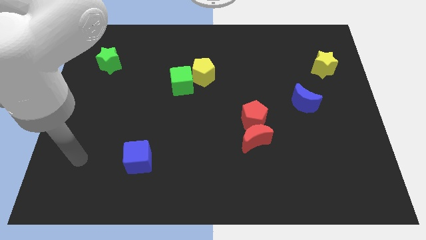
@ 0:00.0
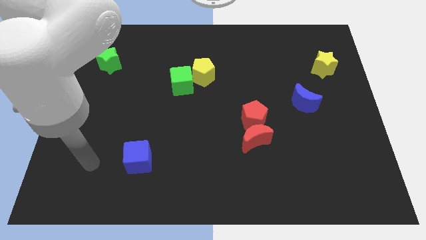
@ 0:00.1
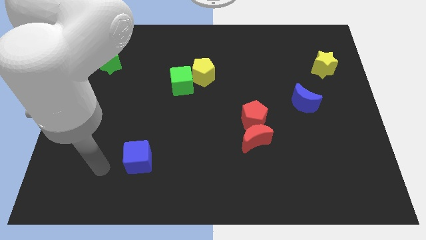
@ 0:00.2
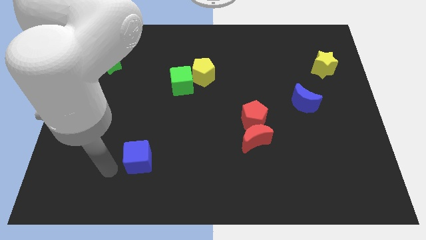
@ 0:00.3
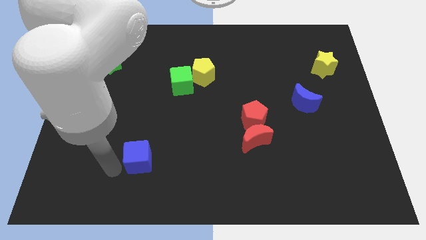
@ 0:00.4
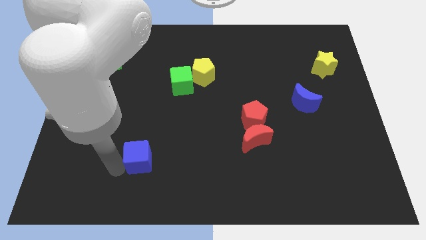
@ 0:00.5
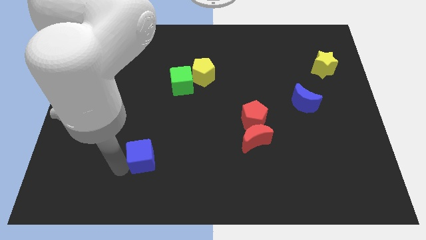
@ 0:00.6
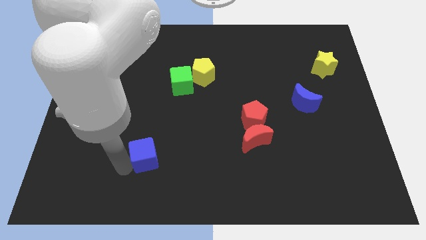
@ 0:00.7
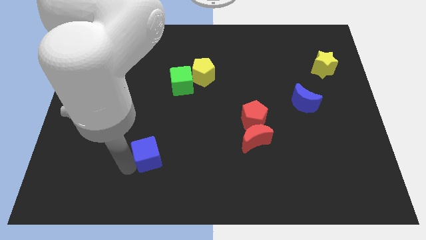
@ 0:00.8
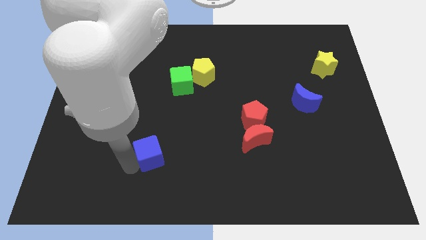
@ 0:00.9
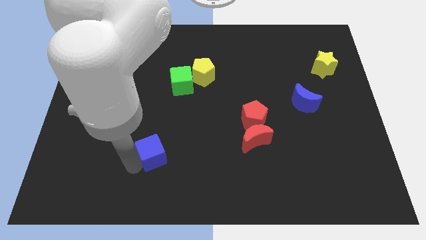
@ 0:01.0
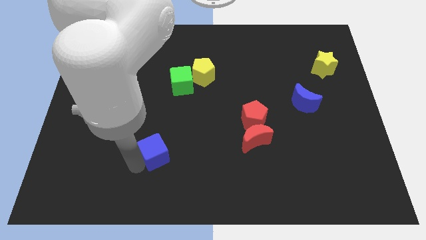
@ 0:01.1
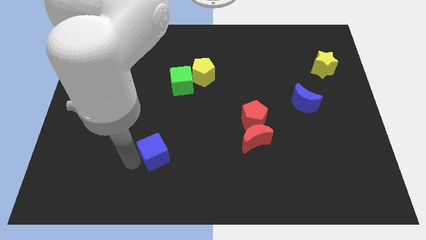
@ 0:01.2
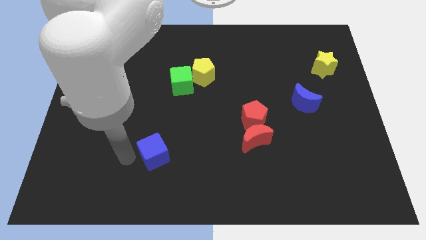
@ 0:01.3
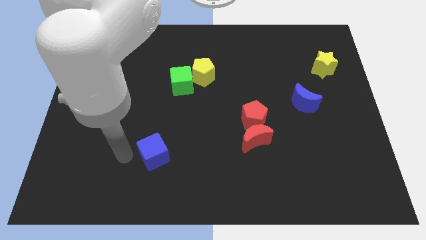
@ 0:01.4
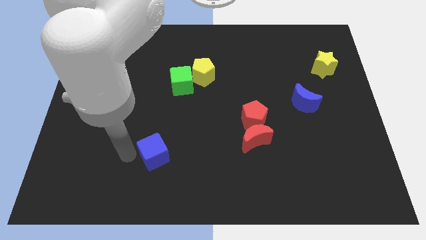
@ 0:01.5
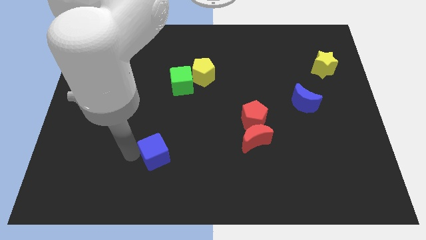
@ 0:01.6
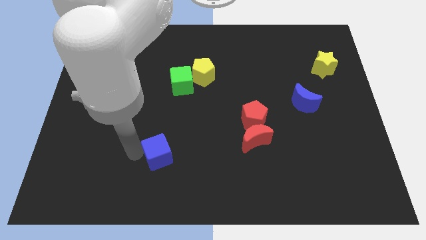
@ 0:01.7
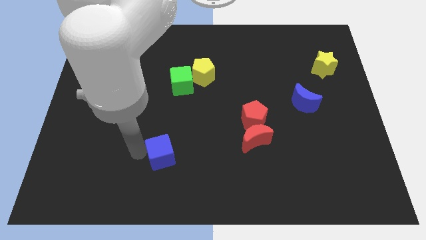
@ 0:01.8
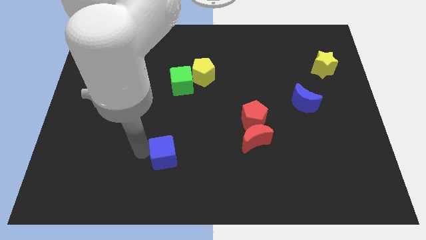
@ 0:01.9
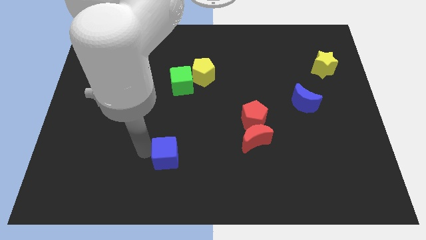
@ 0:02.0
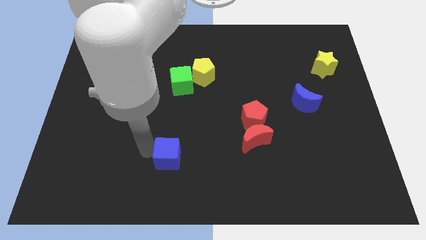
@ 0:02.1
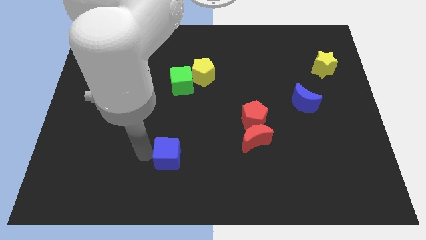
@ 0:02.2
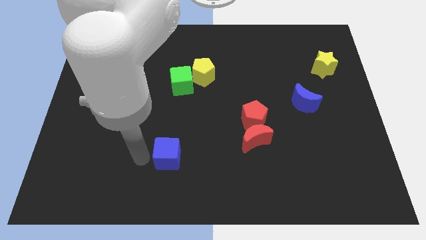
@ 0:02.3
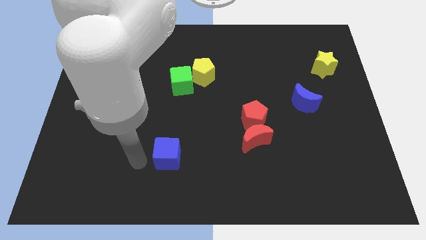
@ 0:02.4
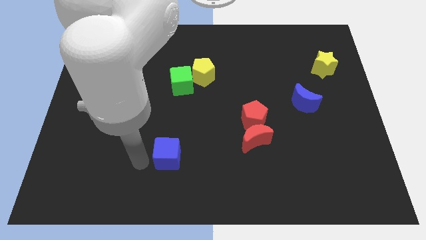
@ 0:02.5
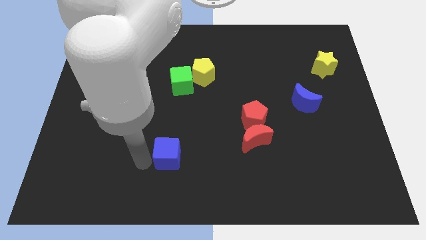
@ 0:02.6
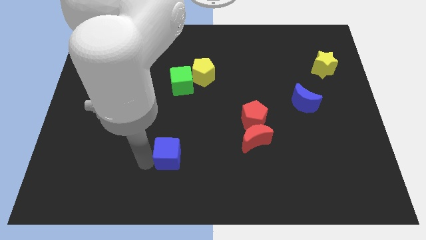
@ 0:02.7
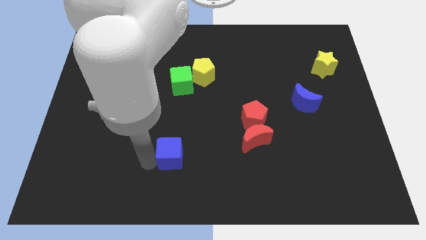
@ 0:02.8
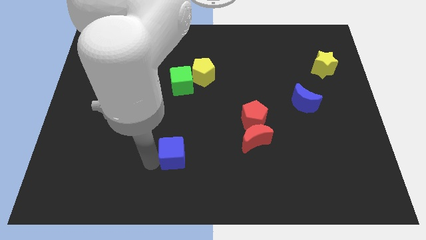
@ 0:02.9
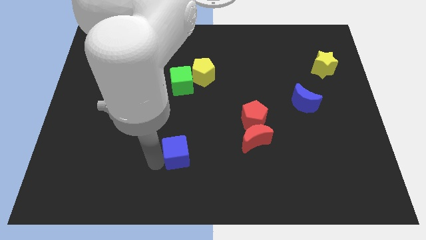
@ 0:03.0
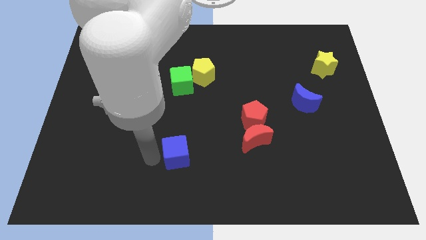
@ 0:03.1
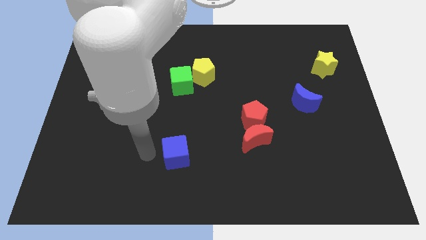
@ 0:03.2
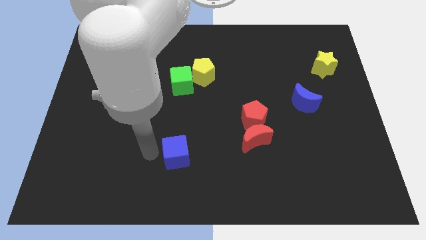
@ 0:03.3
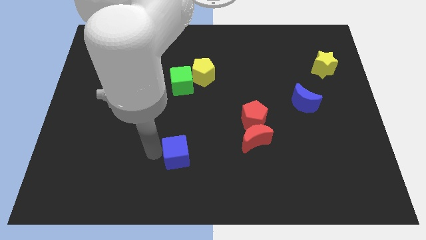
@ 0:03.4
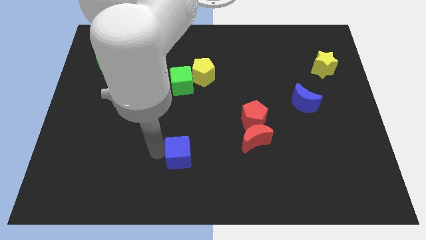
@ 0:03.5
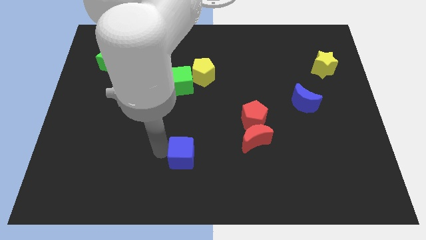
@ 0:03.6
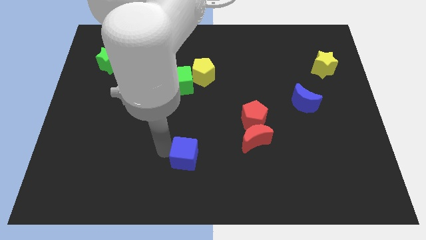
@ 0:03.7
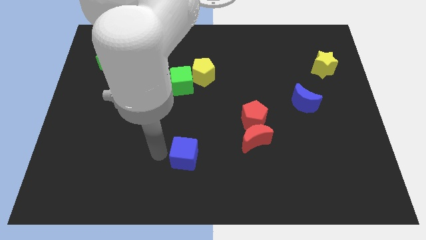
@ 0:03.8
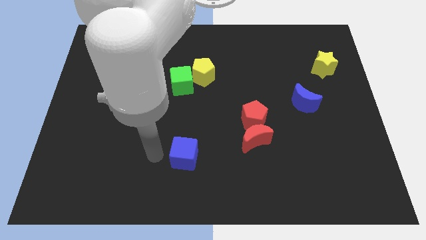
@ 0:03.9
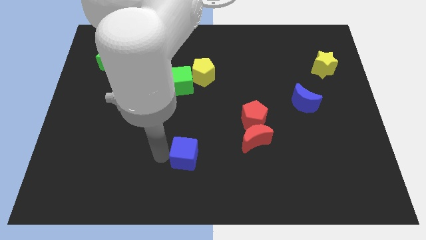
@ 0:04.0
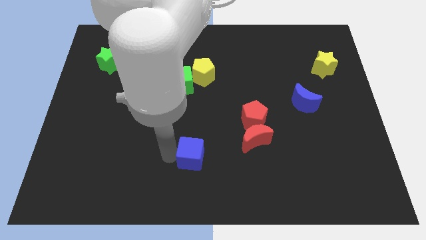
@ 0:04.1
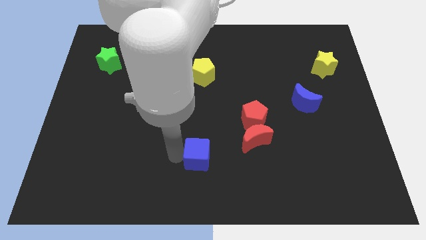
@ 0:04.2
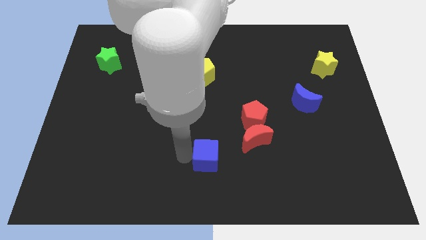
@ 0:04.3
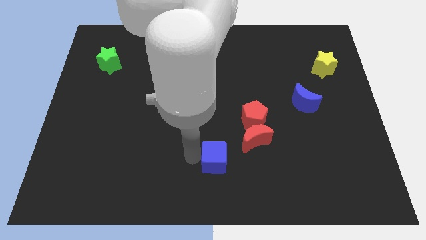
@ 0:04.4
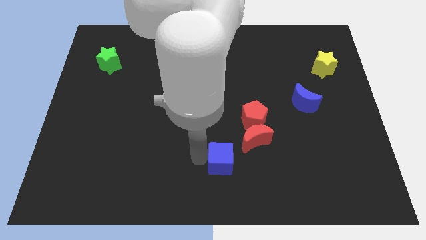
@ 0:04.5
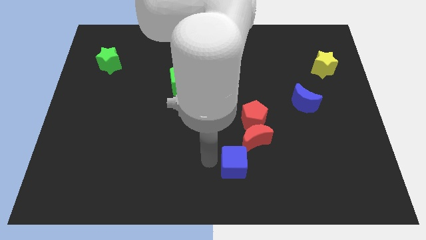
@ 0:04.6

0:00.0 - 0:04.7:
push the blue cube to the bottom of the red pentagon

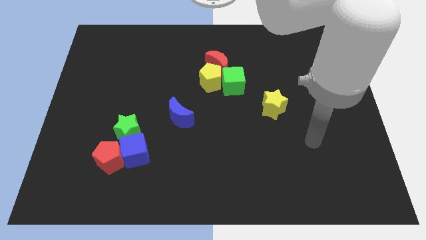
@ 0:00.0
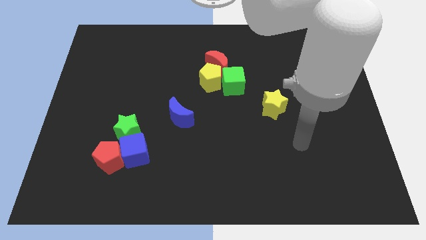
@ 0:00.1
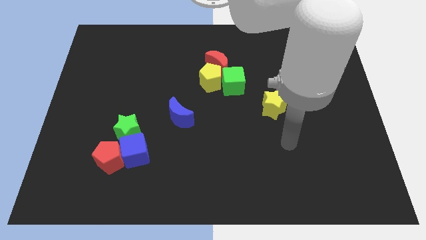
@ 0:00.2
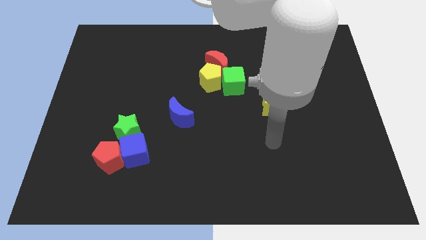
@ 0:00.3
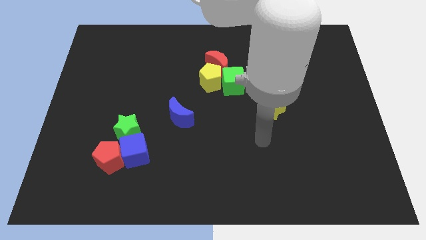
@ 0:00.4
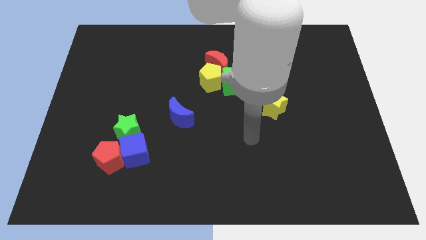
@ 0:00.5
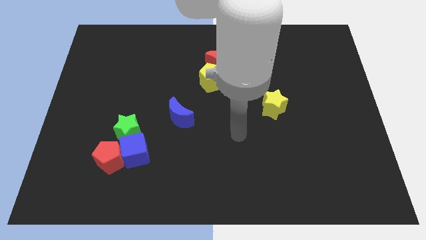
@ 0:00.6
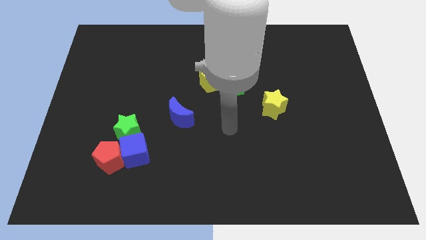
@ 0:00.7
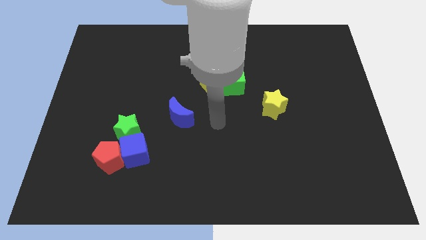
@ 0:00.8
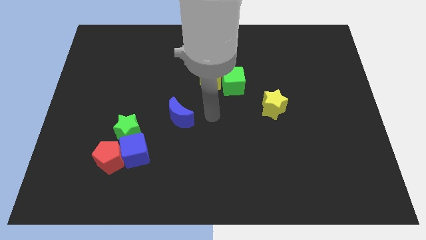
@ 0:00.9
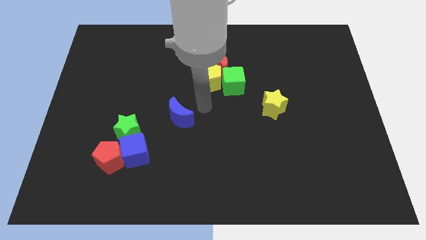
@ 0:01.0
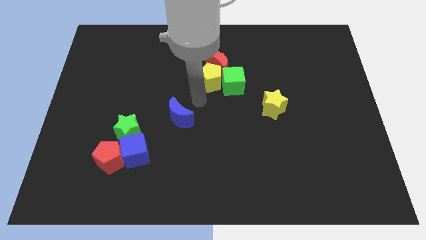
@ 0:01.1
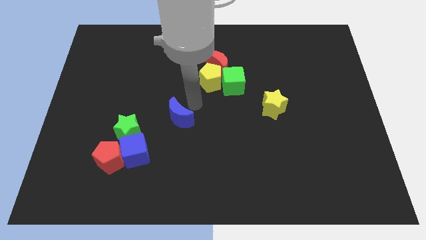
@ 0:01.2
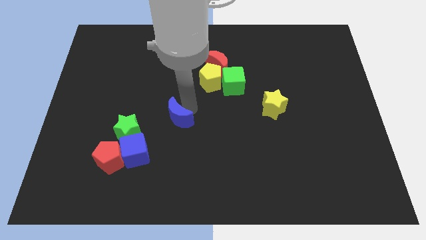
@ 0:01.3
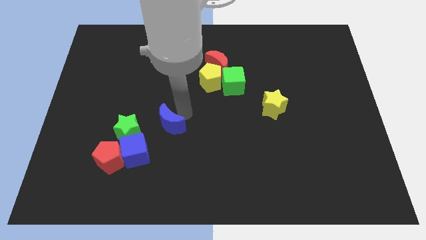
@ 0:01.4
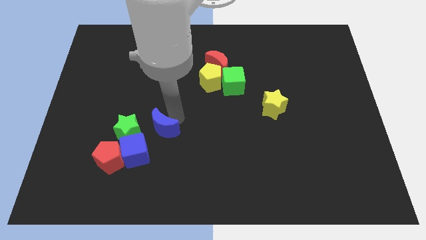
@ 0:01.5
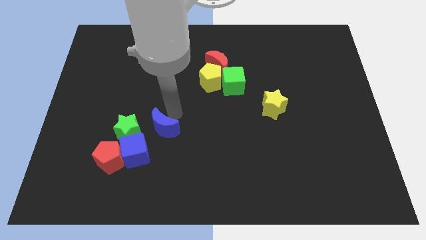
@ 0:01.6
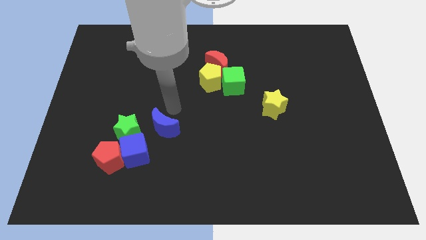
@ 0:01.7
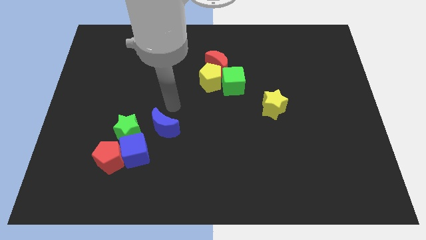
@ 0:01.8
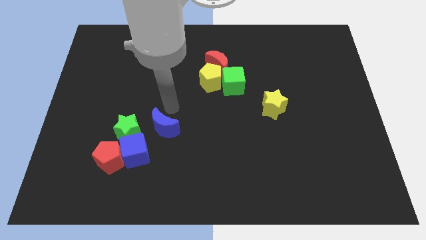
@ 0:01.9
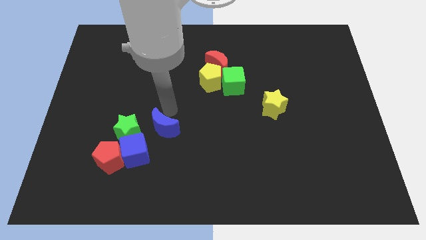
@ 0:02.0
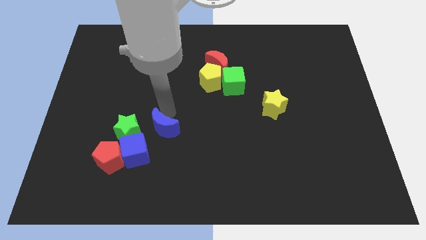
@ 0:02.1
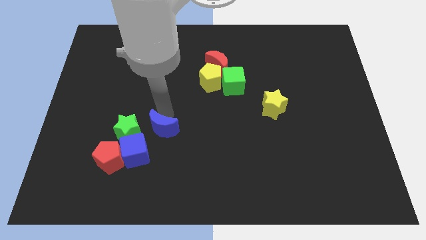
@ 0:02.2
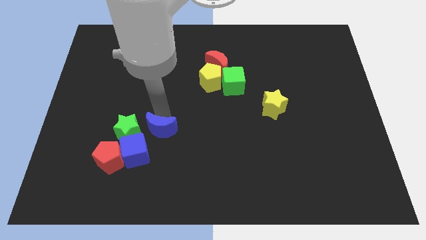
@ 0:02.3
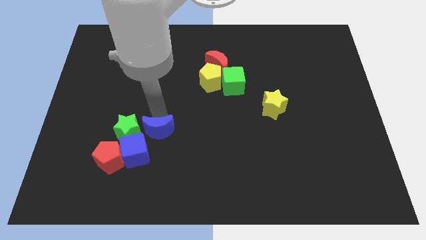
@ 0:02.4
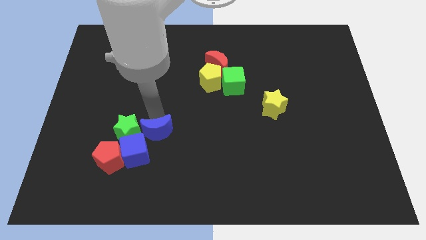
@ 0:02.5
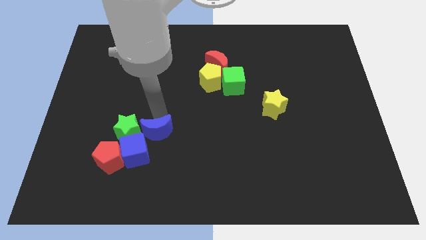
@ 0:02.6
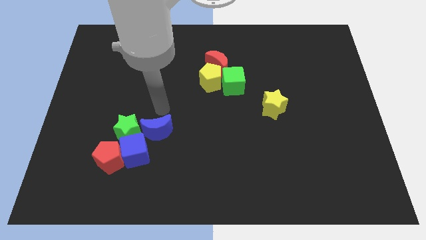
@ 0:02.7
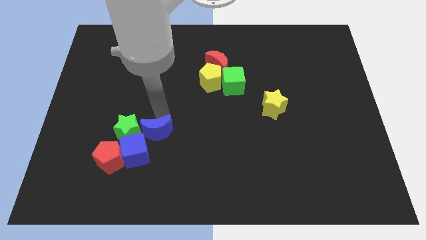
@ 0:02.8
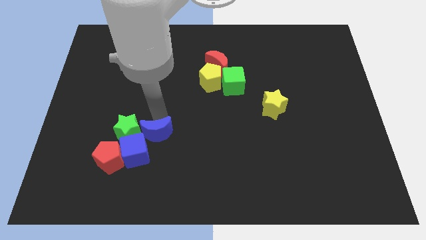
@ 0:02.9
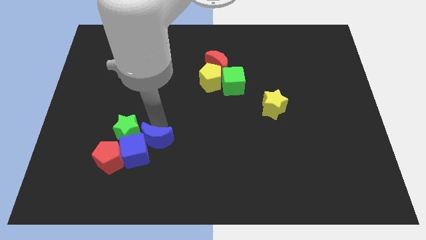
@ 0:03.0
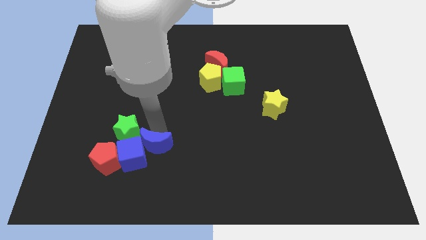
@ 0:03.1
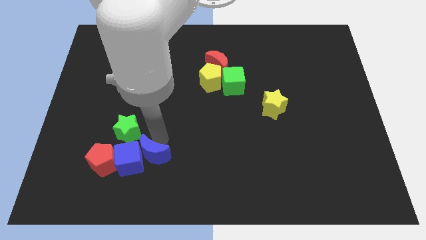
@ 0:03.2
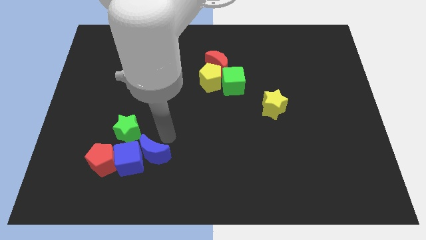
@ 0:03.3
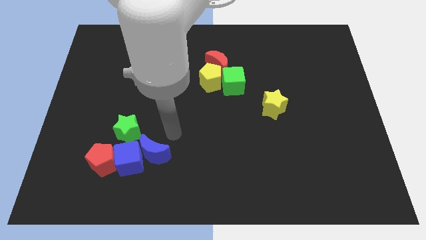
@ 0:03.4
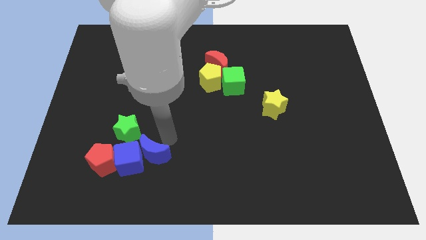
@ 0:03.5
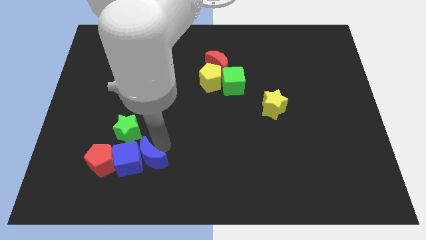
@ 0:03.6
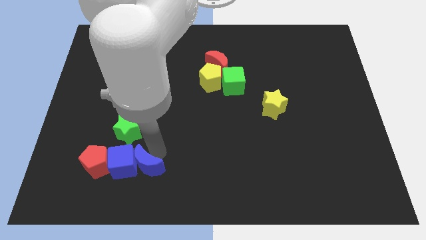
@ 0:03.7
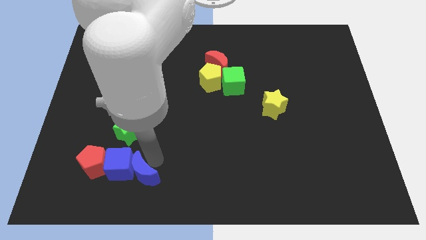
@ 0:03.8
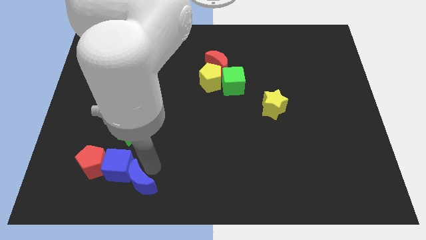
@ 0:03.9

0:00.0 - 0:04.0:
move the blue moon diagonally down and to the right of the red pentagon
